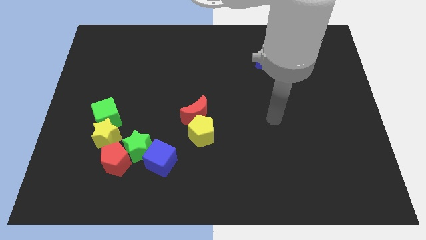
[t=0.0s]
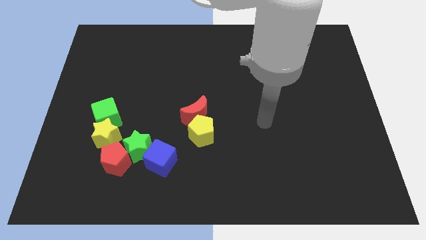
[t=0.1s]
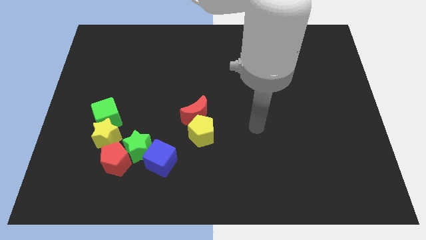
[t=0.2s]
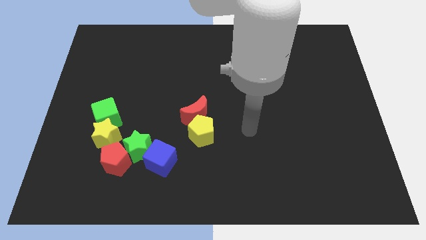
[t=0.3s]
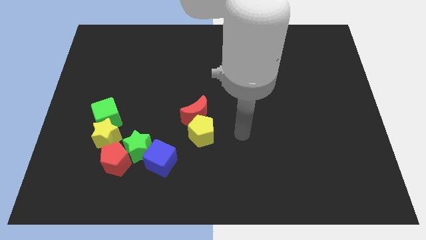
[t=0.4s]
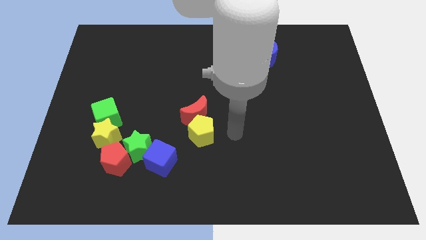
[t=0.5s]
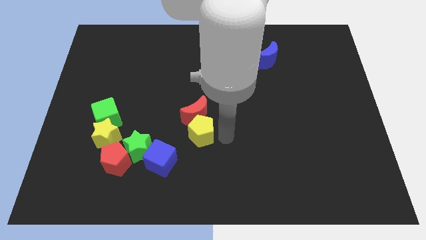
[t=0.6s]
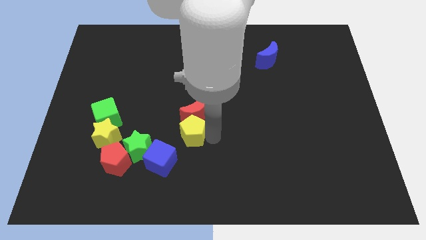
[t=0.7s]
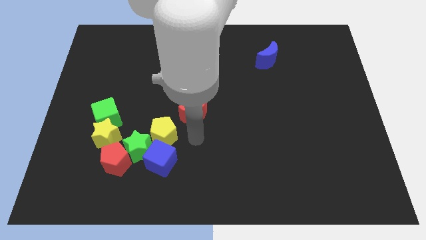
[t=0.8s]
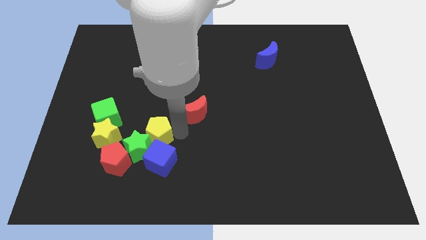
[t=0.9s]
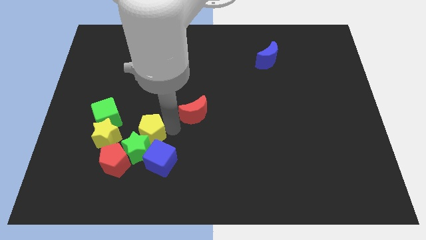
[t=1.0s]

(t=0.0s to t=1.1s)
pull the red moon apart from the yellow pentagon

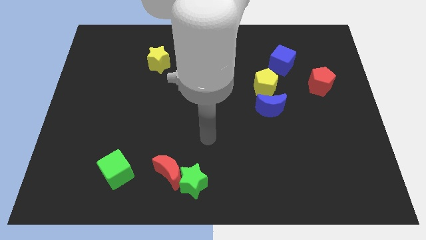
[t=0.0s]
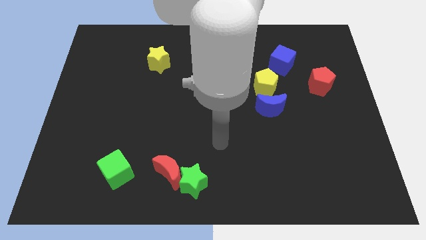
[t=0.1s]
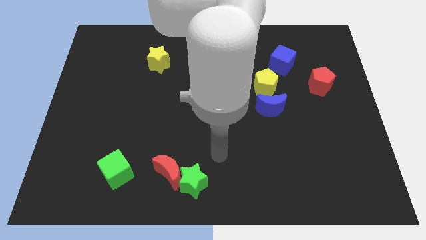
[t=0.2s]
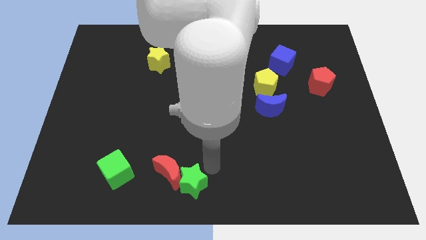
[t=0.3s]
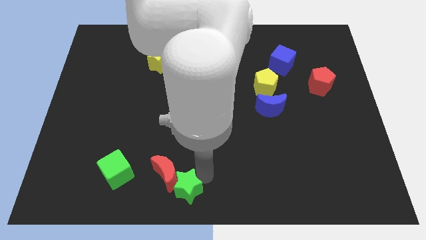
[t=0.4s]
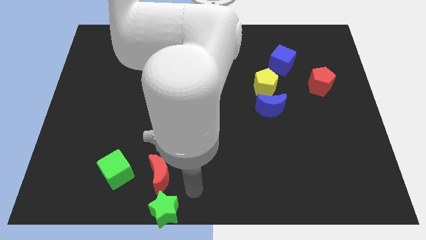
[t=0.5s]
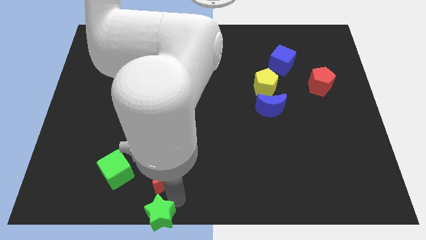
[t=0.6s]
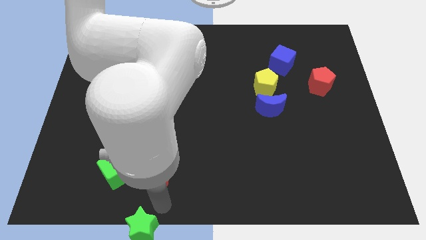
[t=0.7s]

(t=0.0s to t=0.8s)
move the red moon away from the green star

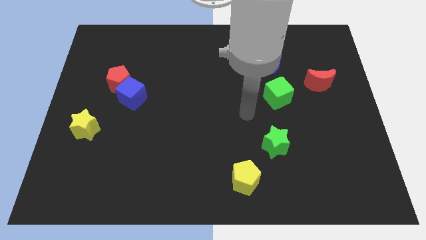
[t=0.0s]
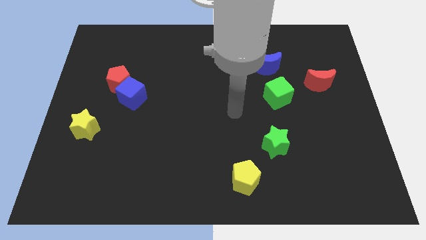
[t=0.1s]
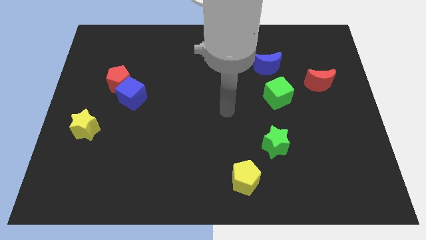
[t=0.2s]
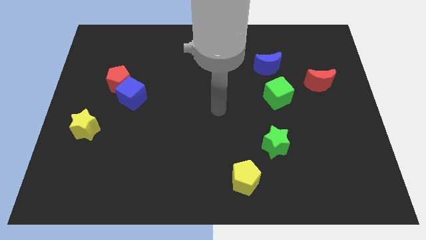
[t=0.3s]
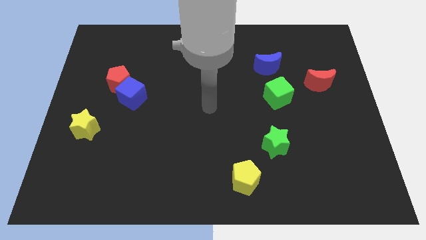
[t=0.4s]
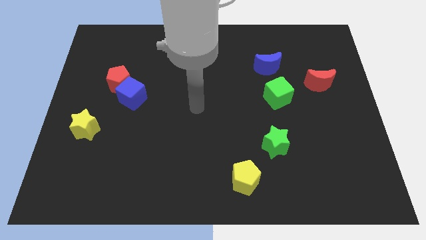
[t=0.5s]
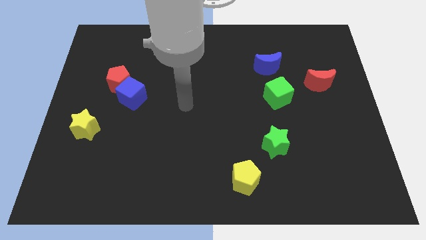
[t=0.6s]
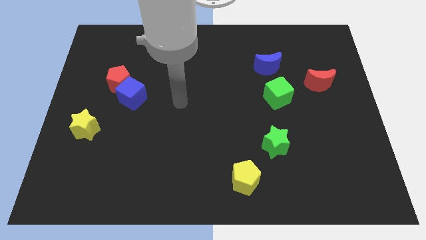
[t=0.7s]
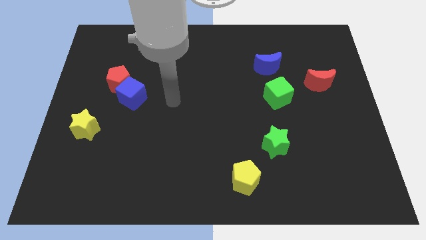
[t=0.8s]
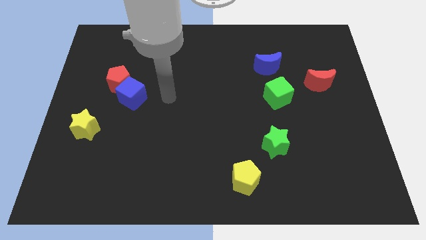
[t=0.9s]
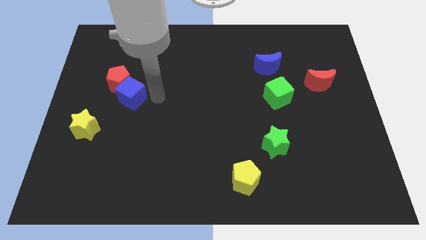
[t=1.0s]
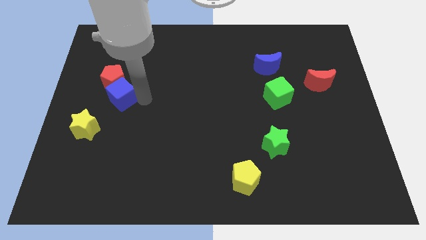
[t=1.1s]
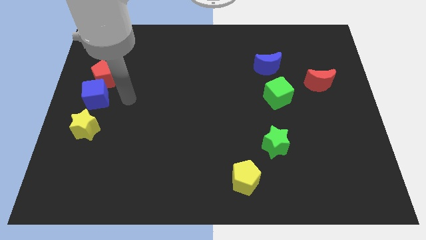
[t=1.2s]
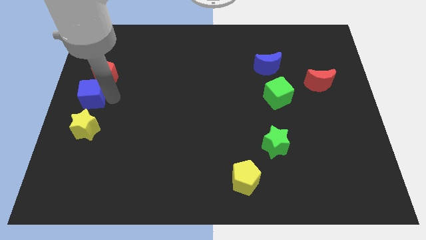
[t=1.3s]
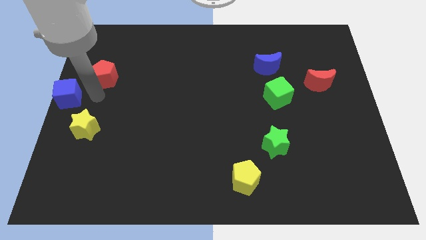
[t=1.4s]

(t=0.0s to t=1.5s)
separate the red pentagon from the blue cube

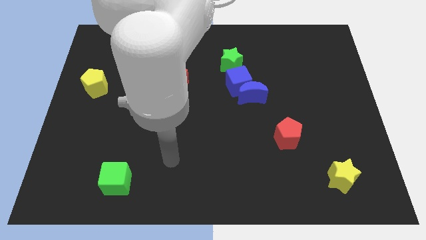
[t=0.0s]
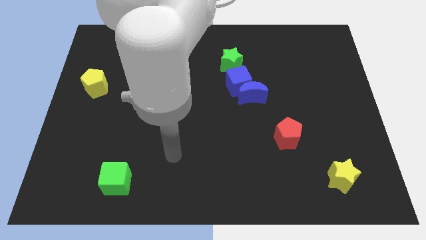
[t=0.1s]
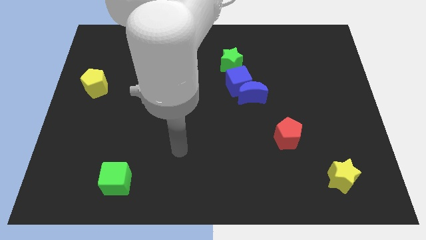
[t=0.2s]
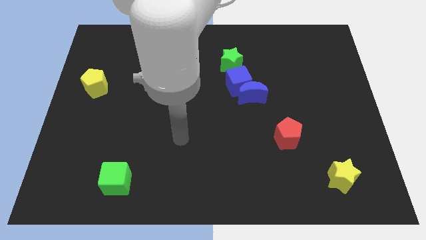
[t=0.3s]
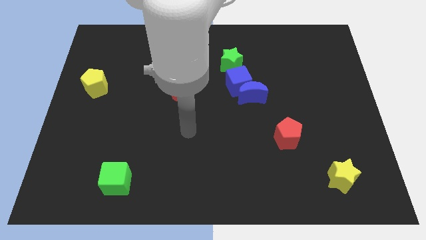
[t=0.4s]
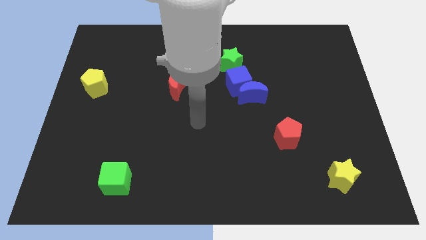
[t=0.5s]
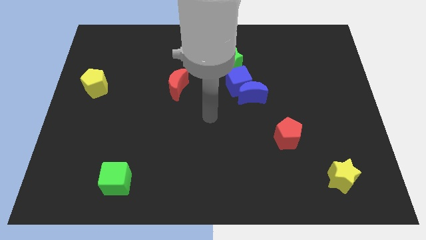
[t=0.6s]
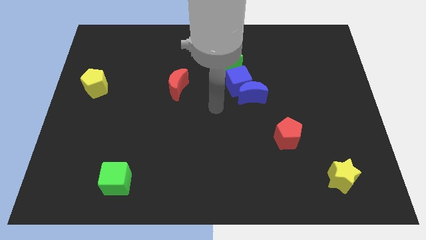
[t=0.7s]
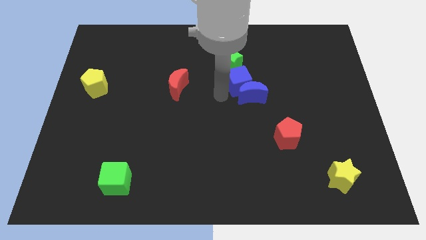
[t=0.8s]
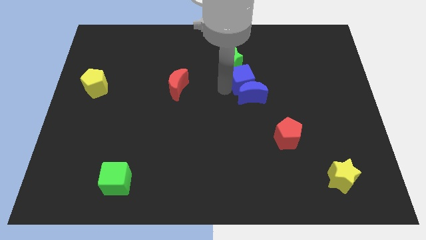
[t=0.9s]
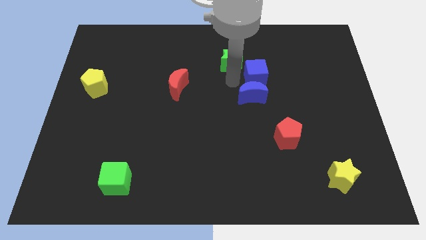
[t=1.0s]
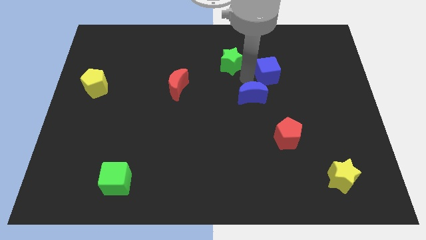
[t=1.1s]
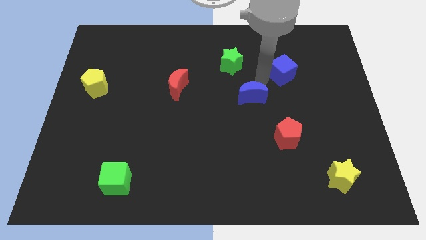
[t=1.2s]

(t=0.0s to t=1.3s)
pull the blue moon apart from the blue cube

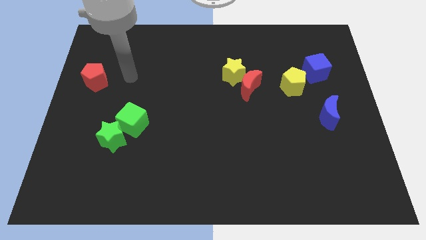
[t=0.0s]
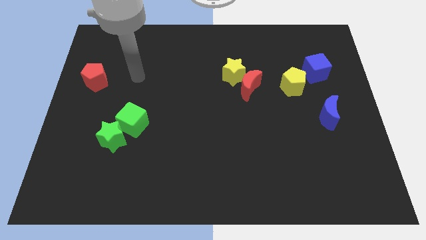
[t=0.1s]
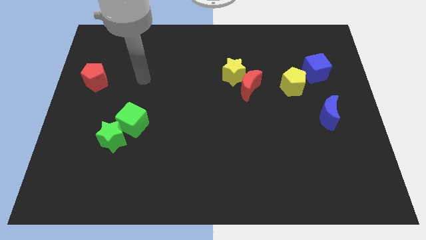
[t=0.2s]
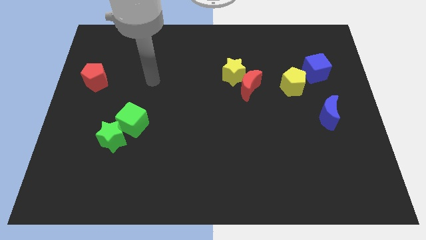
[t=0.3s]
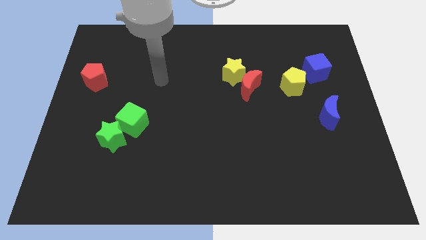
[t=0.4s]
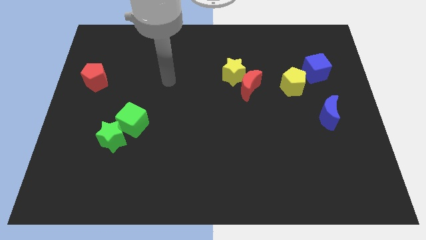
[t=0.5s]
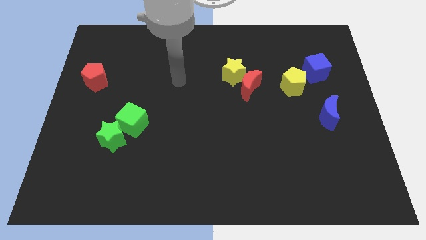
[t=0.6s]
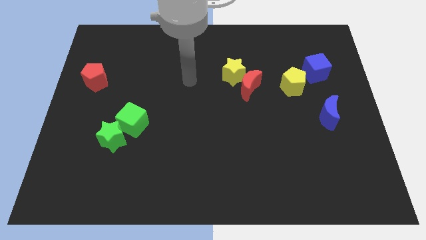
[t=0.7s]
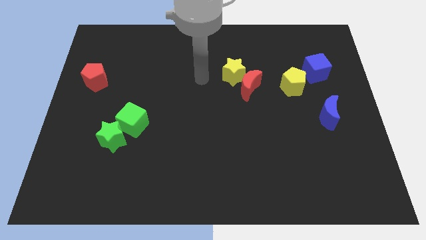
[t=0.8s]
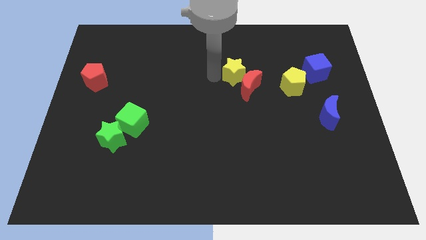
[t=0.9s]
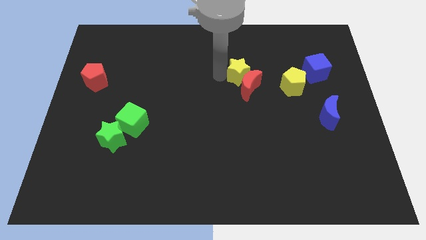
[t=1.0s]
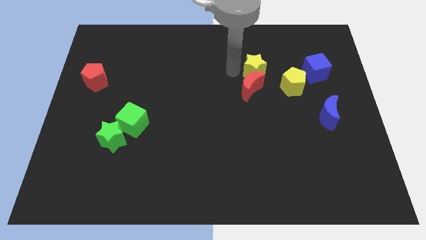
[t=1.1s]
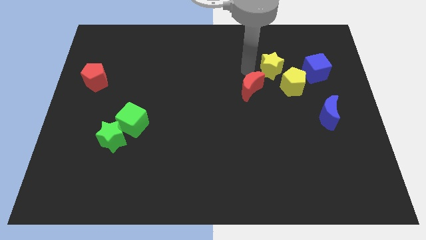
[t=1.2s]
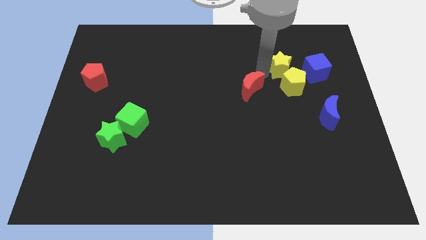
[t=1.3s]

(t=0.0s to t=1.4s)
separate the red moon from the yellow star

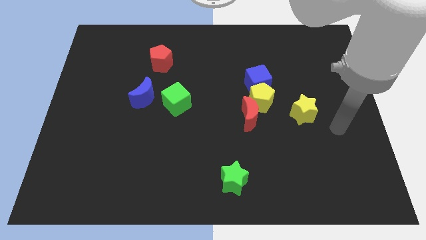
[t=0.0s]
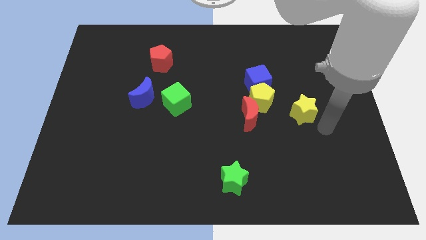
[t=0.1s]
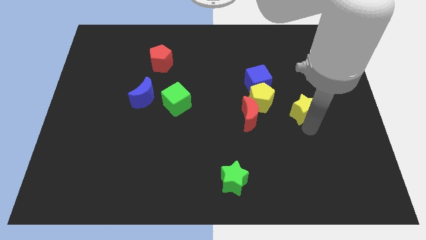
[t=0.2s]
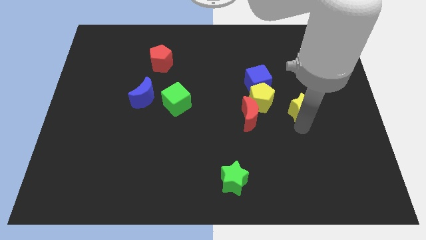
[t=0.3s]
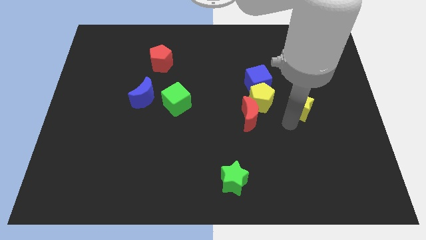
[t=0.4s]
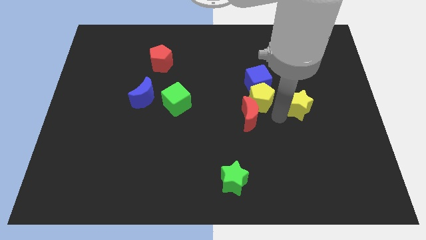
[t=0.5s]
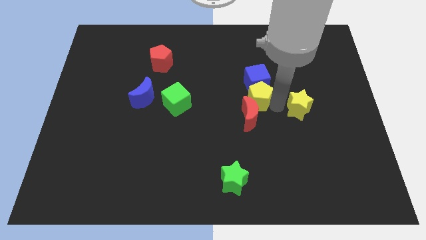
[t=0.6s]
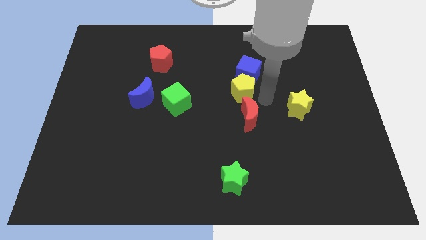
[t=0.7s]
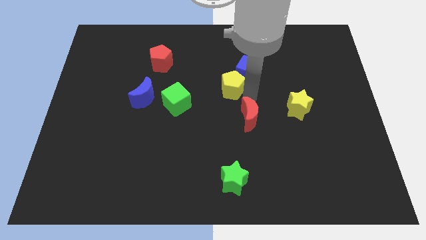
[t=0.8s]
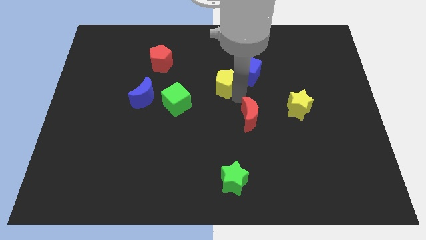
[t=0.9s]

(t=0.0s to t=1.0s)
separate the red moon from the yellow pentagon

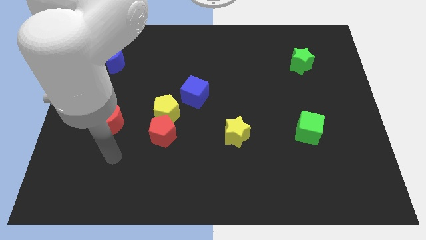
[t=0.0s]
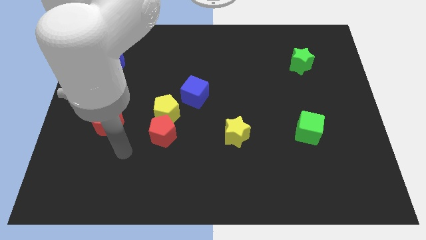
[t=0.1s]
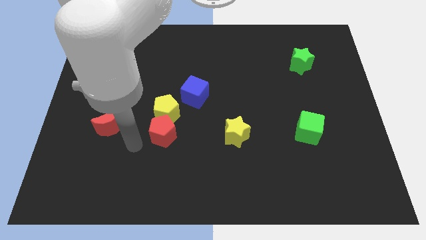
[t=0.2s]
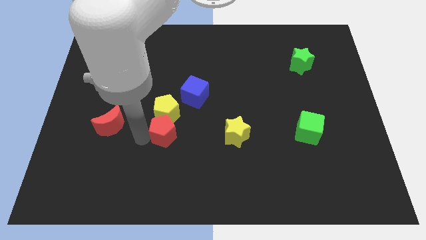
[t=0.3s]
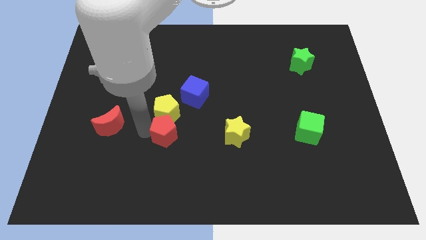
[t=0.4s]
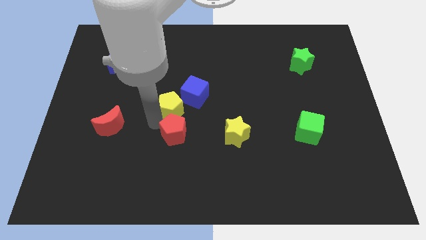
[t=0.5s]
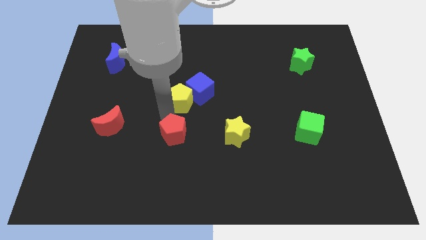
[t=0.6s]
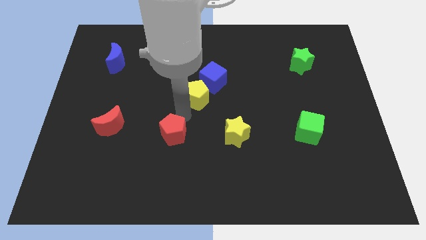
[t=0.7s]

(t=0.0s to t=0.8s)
move the red pentagon away from the yellow pentagon

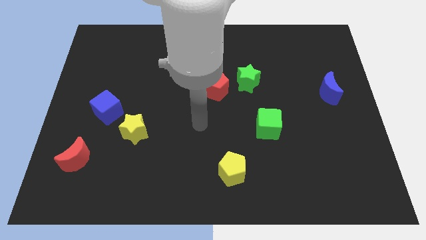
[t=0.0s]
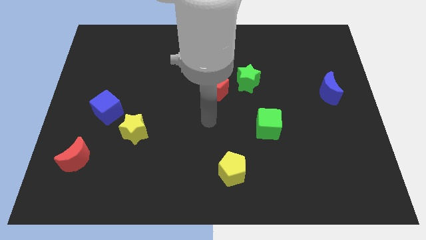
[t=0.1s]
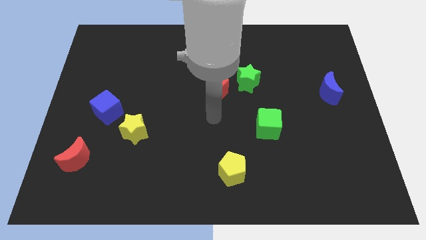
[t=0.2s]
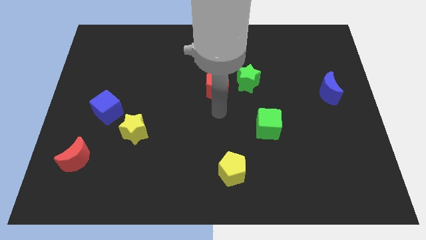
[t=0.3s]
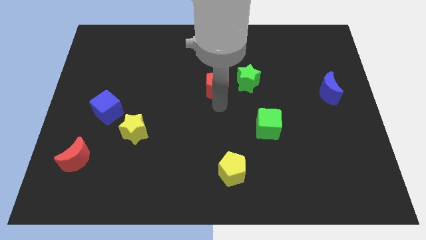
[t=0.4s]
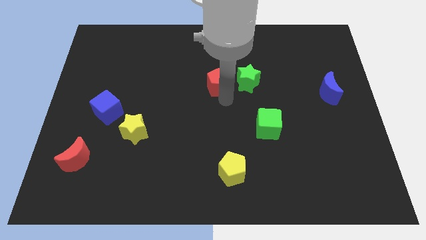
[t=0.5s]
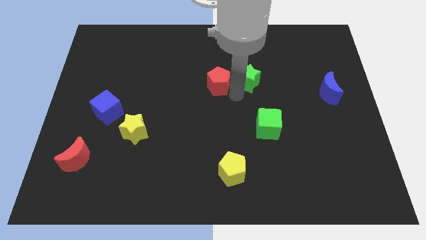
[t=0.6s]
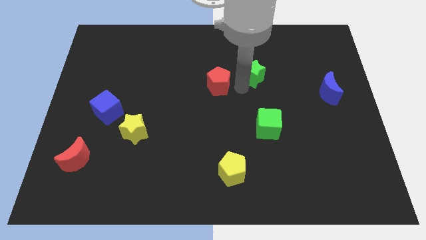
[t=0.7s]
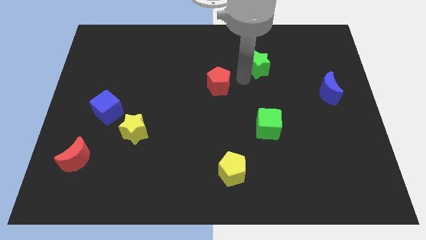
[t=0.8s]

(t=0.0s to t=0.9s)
separate the red pentagon from the green star

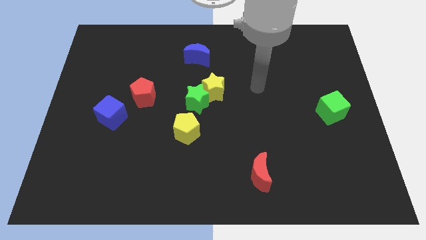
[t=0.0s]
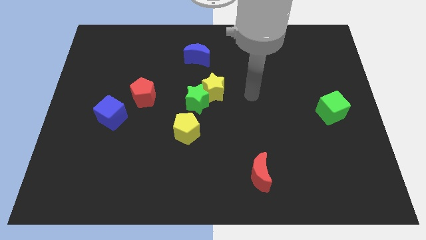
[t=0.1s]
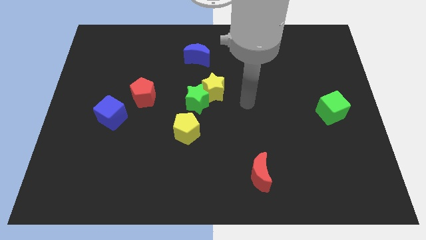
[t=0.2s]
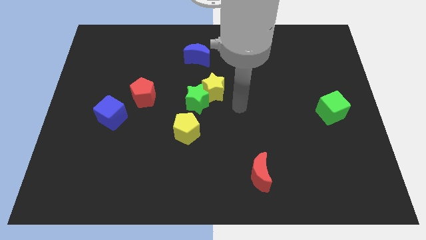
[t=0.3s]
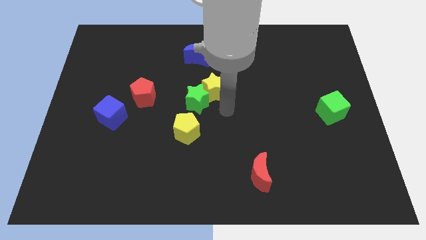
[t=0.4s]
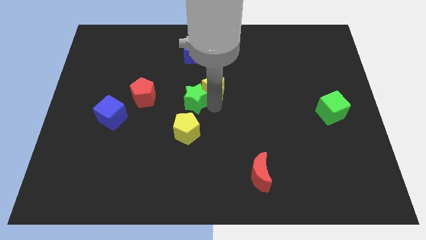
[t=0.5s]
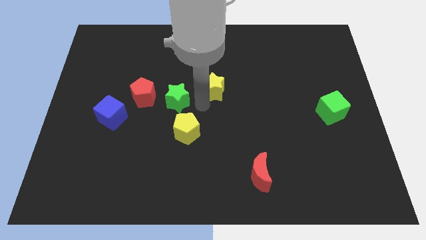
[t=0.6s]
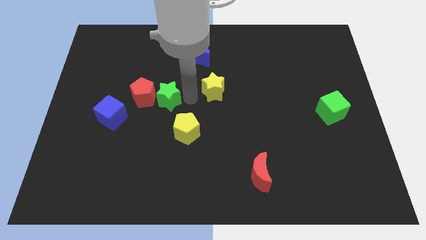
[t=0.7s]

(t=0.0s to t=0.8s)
move the yellow star away from the green star
